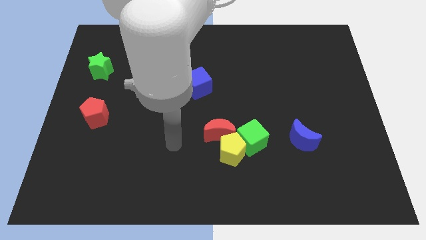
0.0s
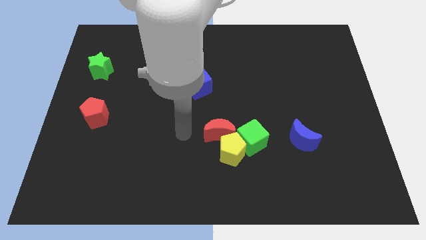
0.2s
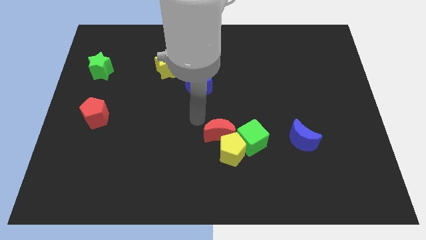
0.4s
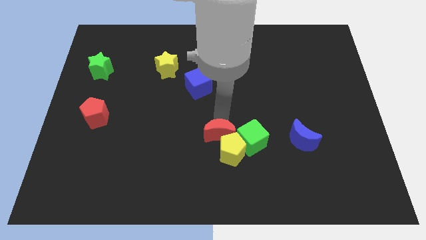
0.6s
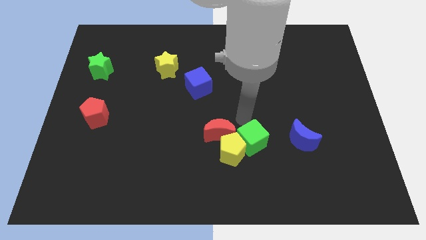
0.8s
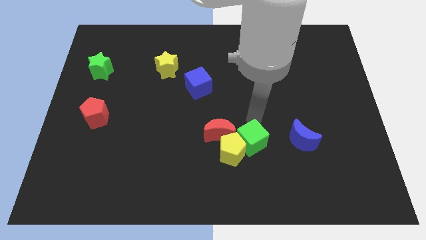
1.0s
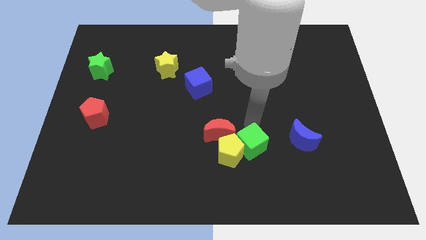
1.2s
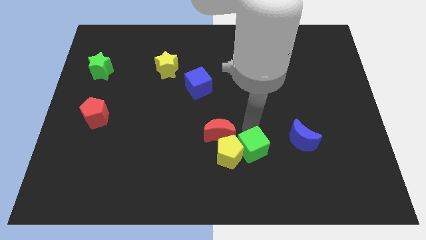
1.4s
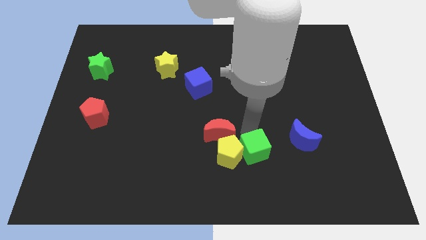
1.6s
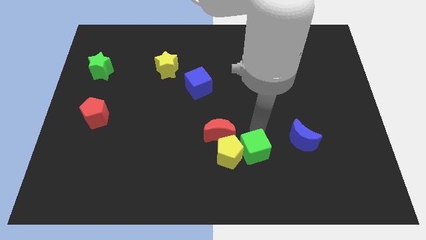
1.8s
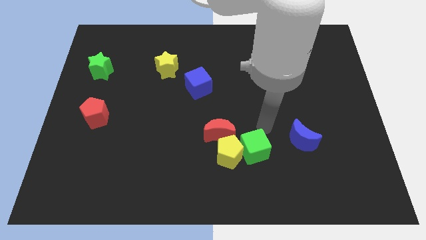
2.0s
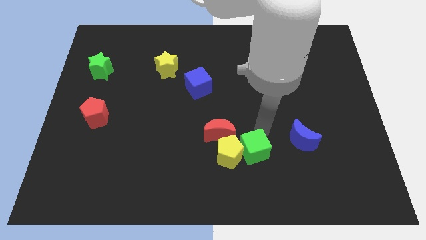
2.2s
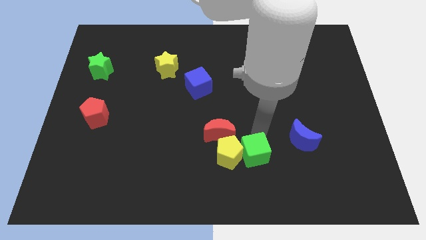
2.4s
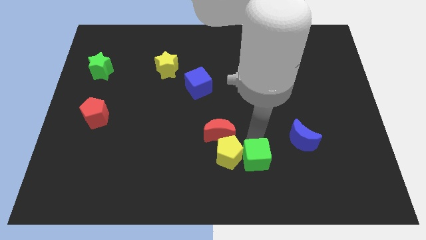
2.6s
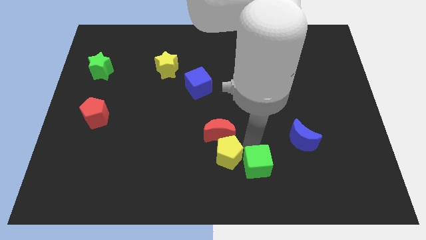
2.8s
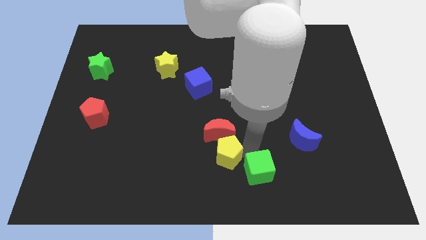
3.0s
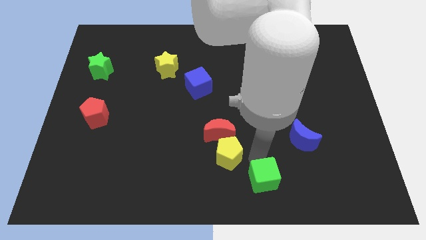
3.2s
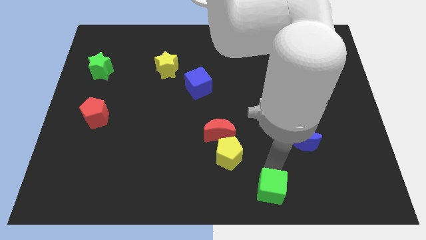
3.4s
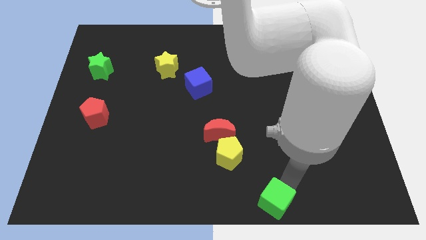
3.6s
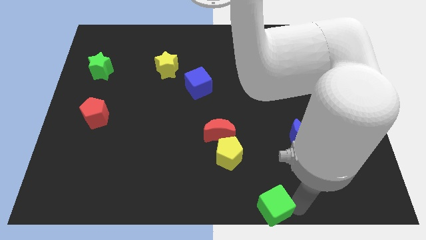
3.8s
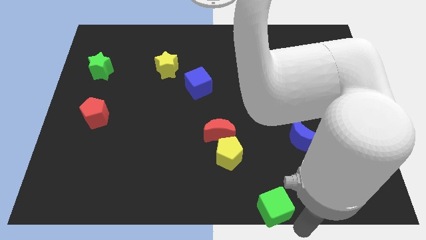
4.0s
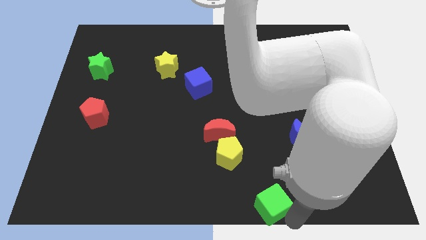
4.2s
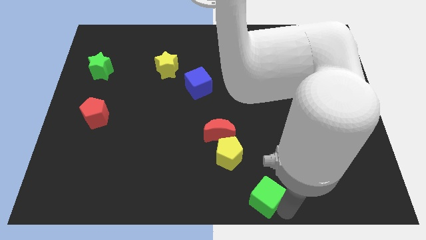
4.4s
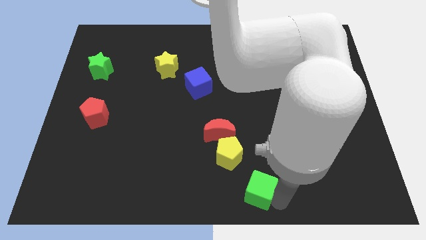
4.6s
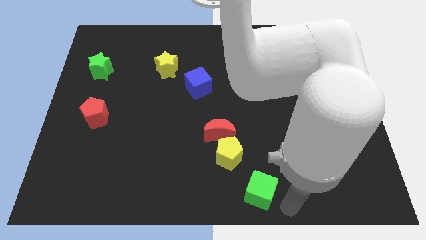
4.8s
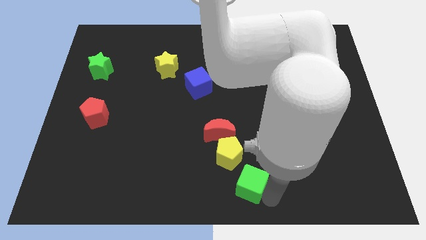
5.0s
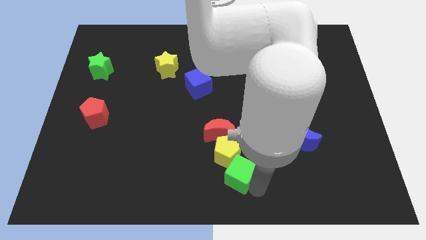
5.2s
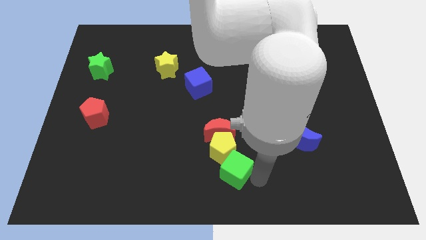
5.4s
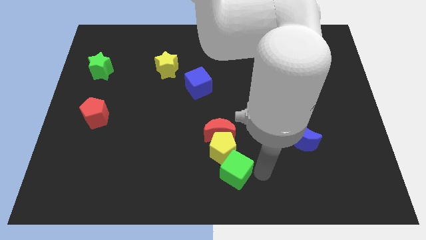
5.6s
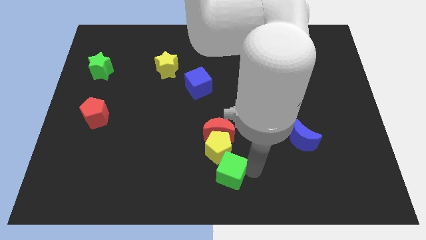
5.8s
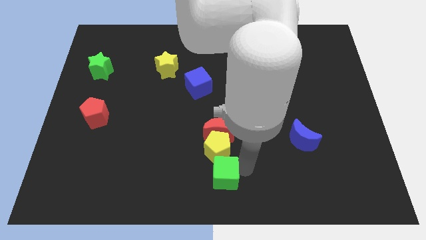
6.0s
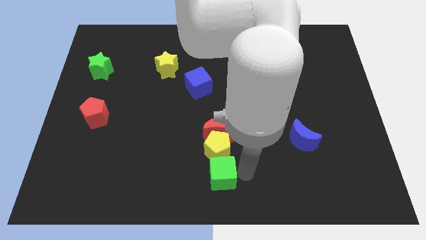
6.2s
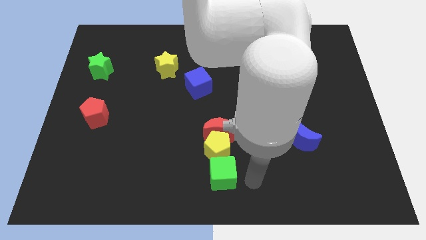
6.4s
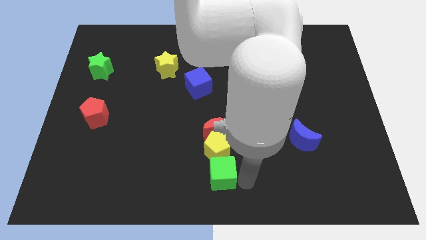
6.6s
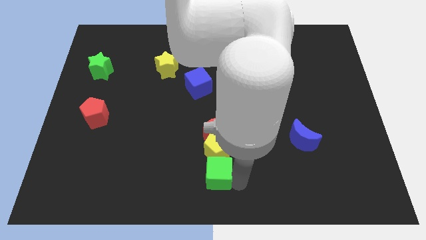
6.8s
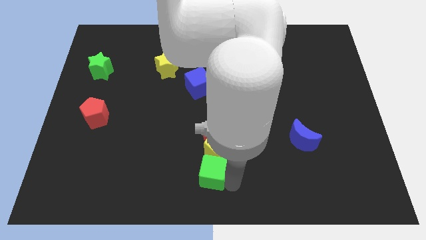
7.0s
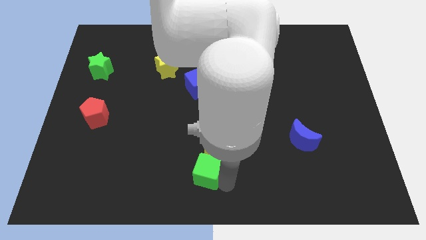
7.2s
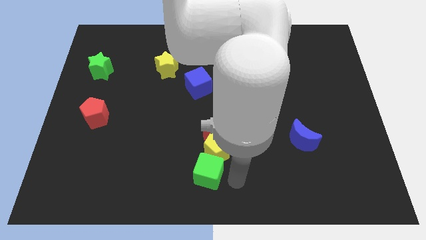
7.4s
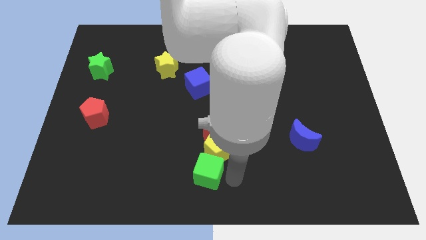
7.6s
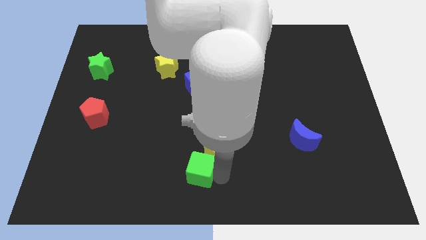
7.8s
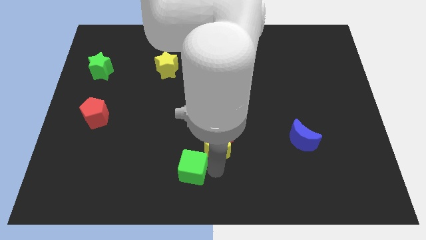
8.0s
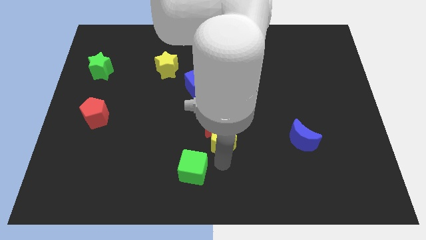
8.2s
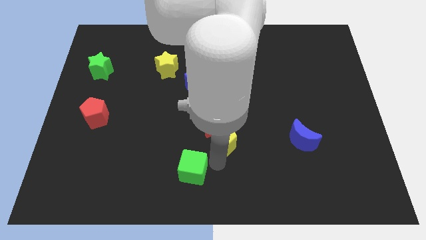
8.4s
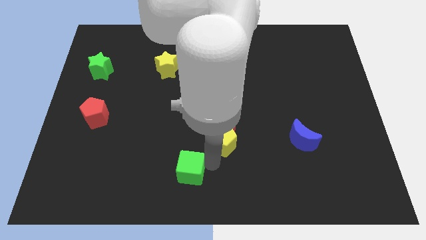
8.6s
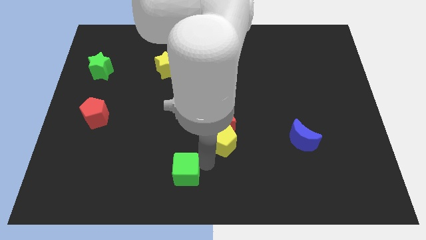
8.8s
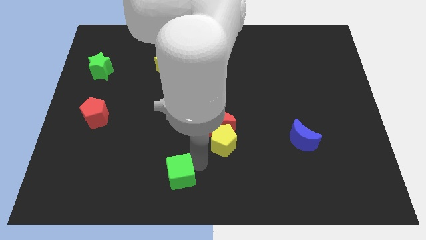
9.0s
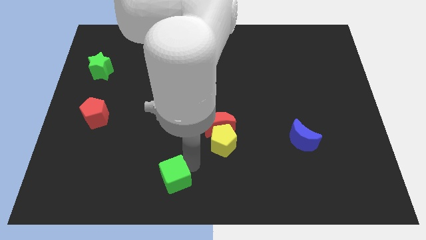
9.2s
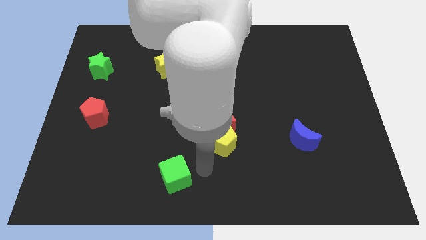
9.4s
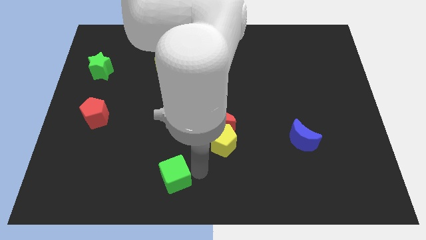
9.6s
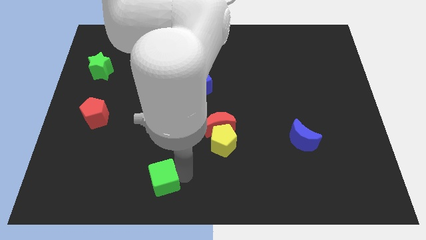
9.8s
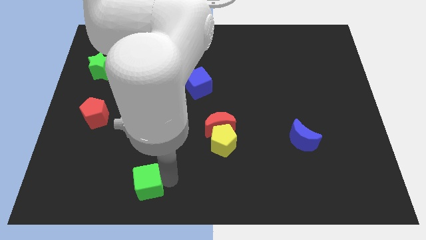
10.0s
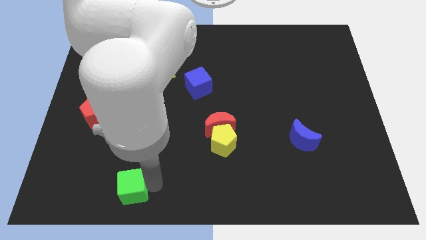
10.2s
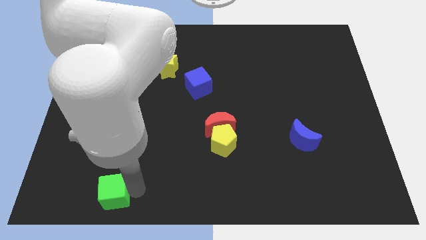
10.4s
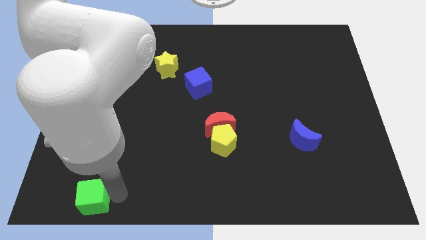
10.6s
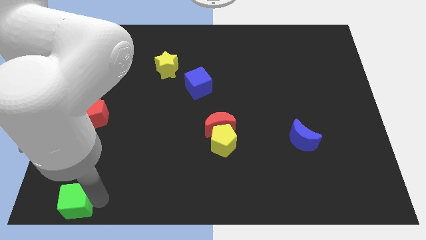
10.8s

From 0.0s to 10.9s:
put the green cube to the bottom left of the board
